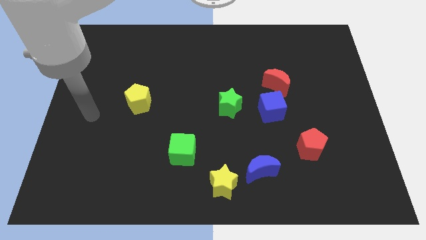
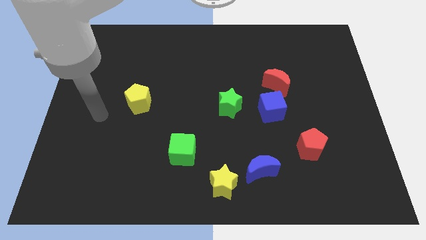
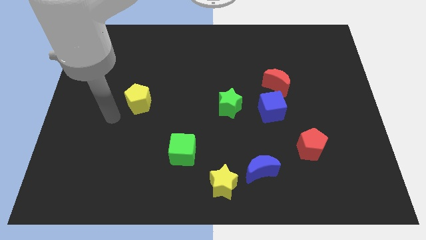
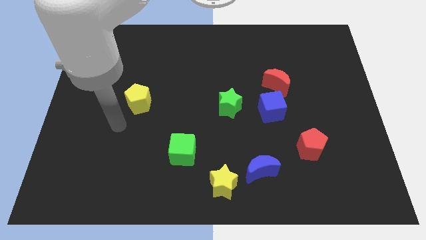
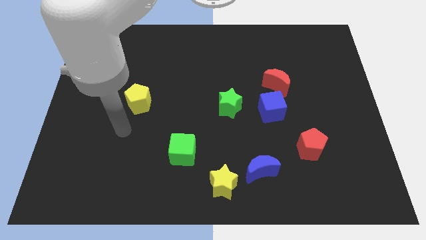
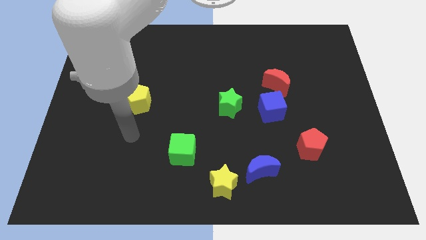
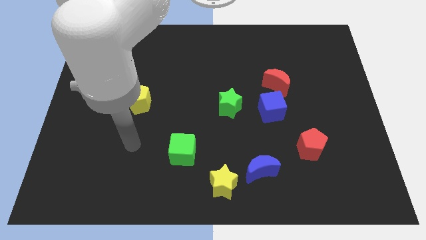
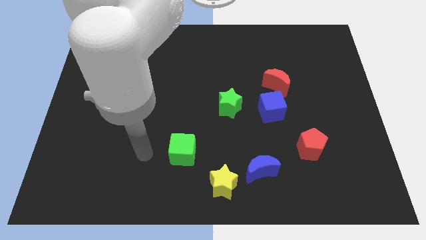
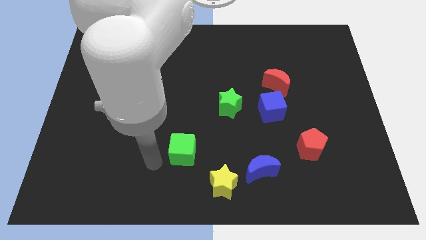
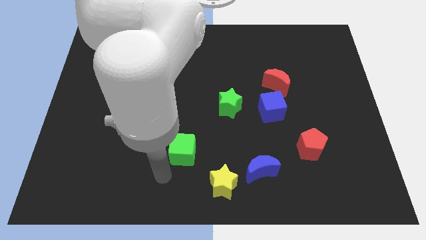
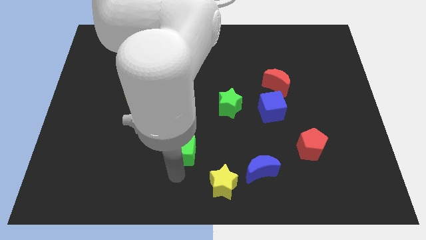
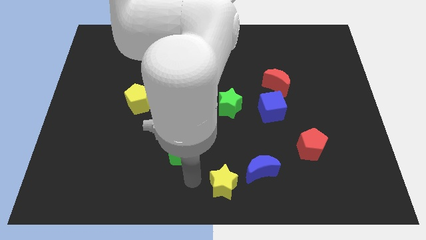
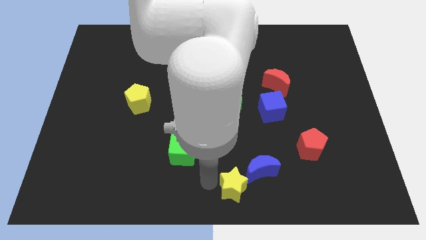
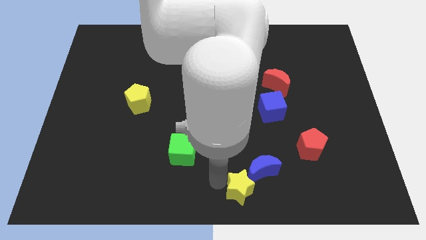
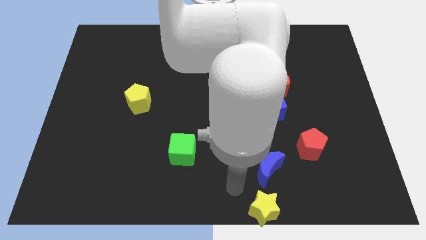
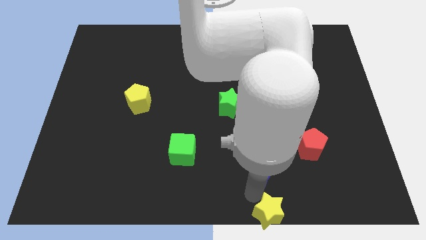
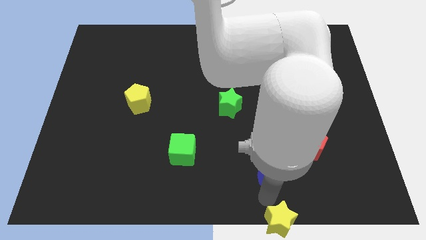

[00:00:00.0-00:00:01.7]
move the blue moon away from the yellow star

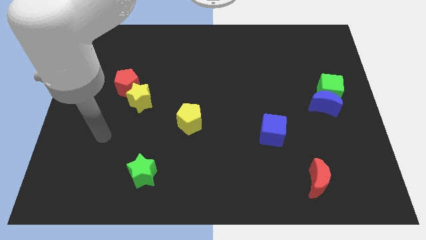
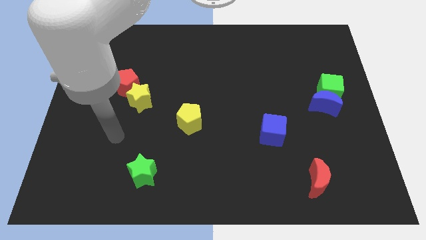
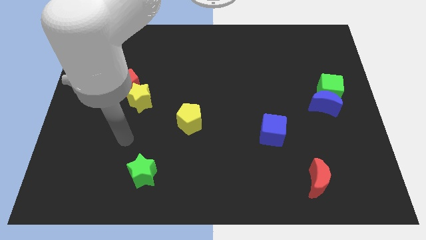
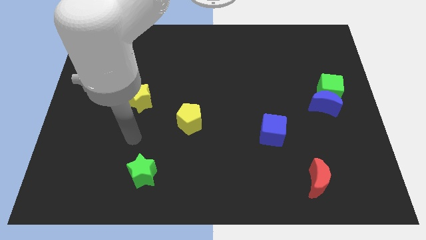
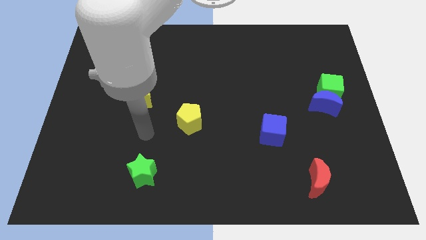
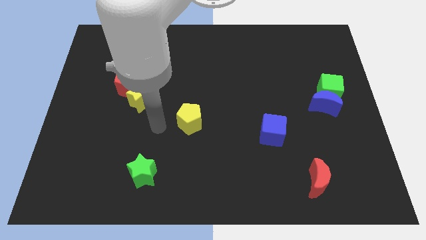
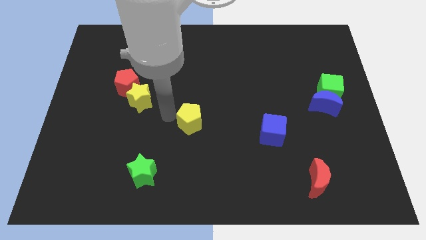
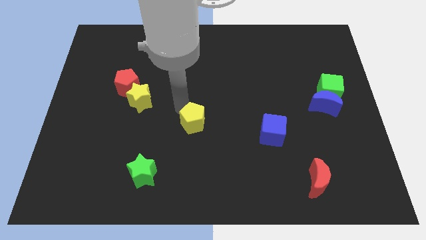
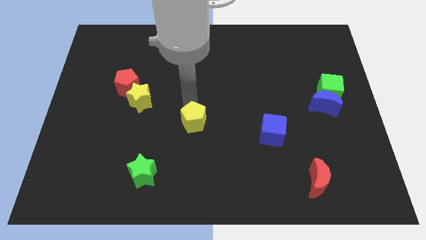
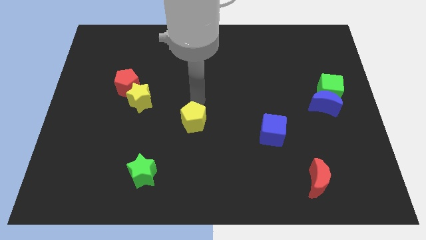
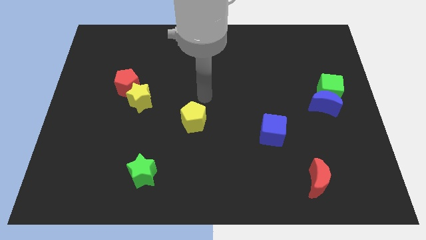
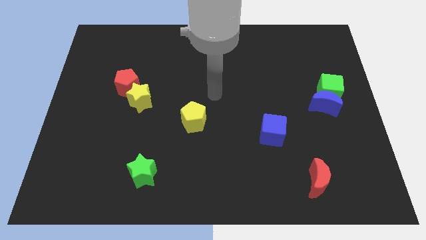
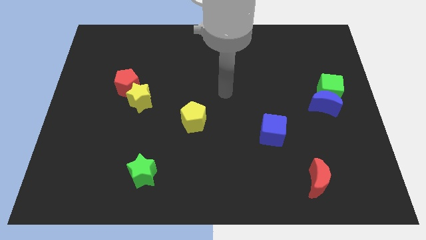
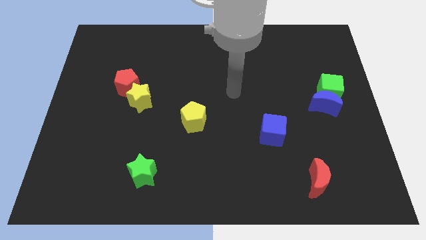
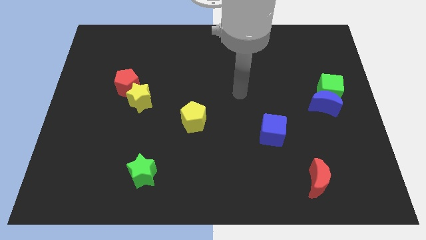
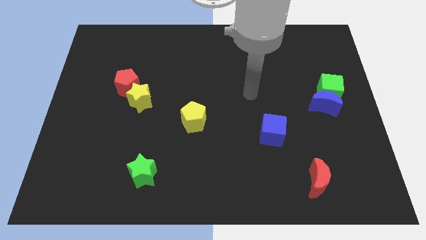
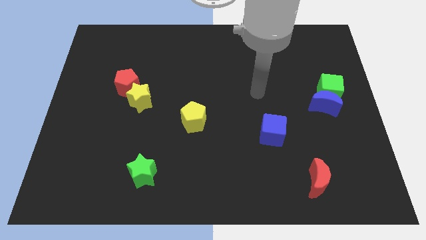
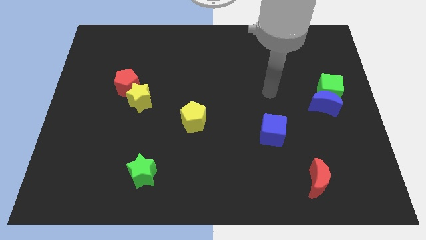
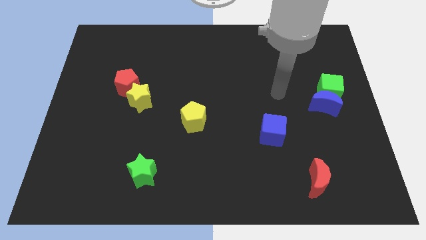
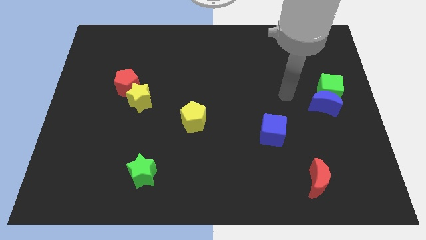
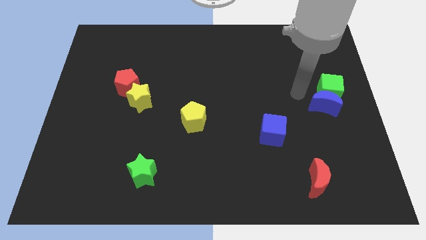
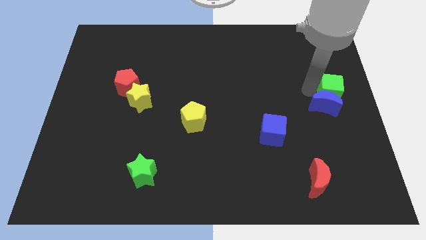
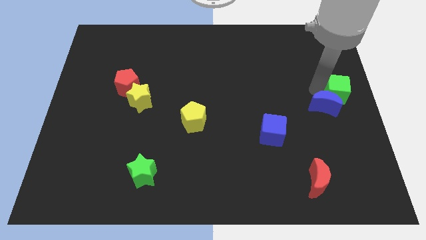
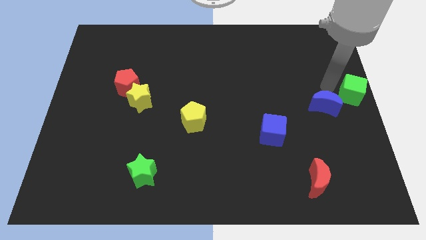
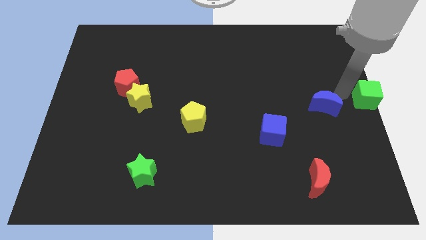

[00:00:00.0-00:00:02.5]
move the blue moon away from the green cube

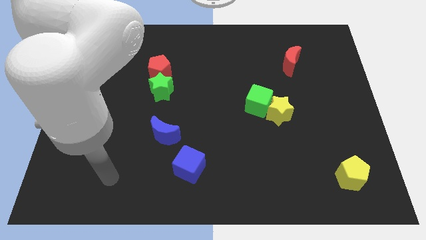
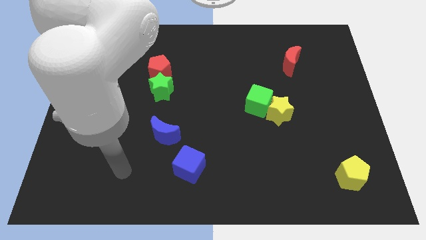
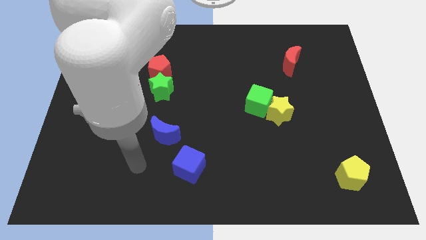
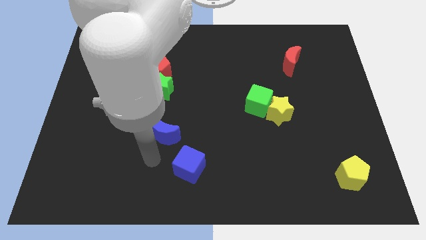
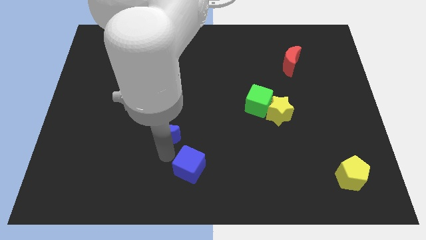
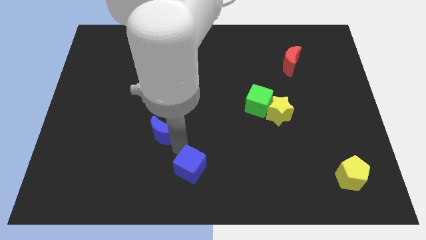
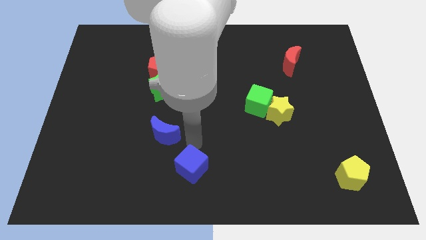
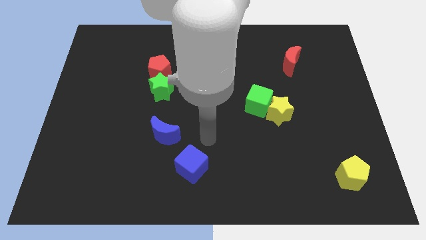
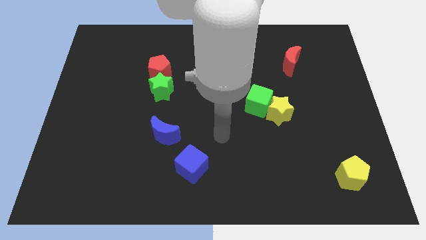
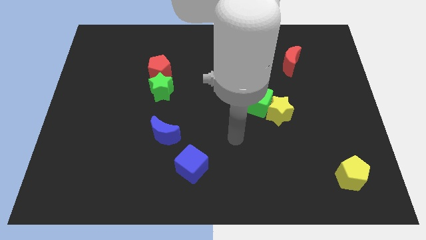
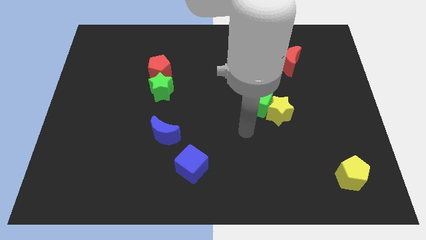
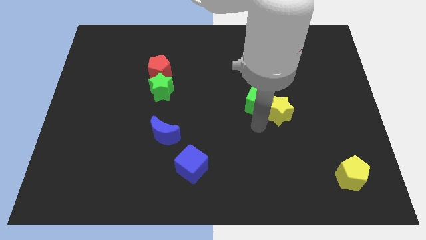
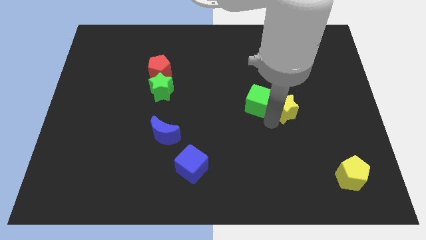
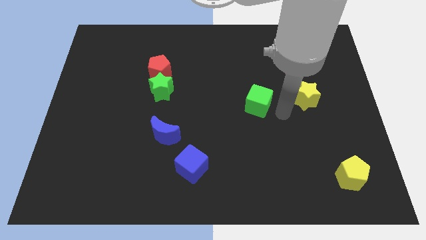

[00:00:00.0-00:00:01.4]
move the green cube away from the yellow star

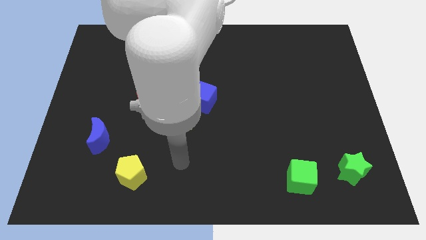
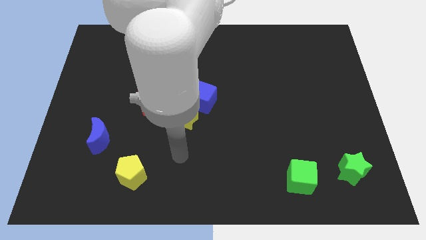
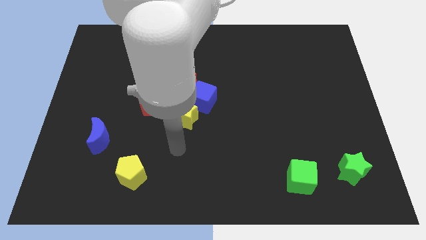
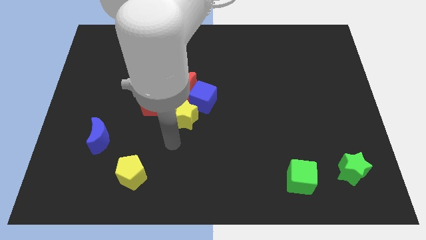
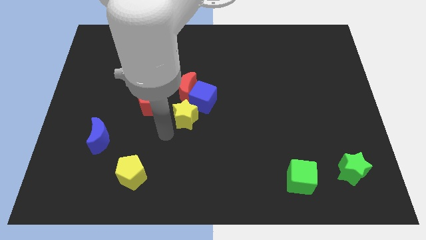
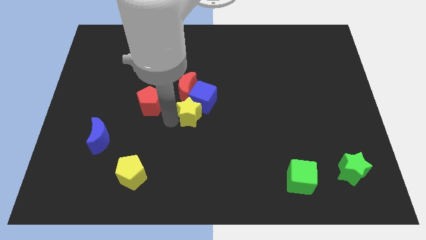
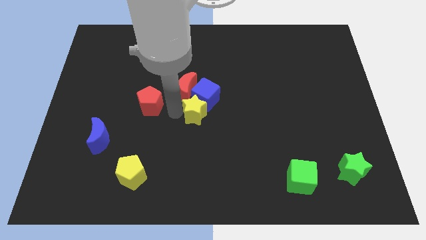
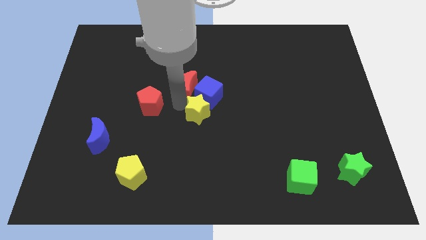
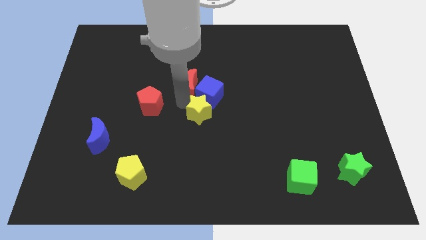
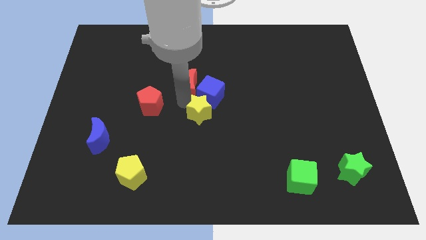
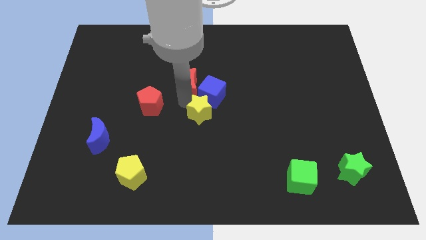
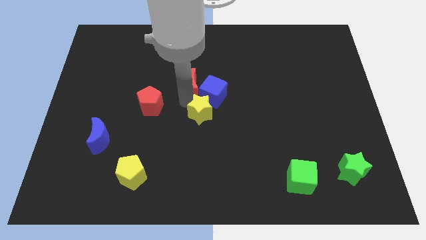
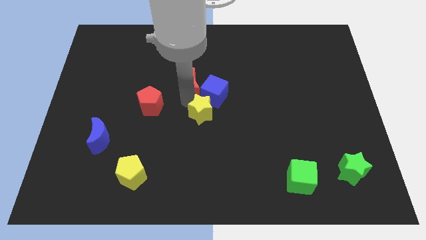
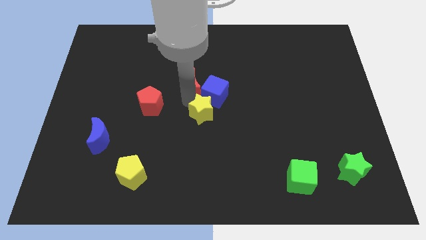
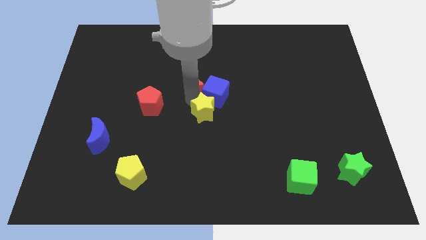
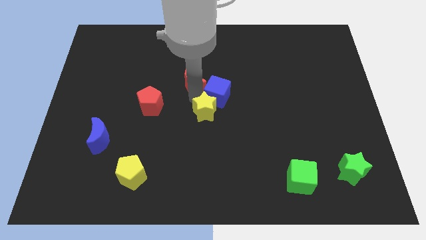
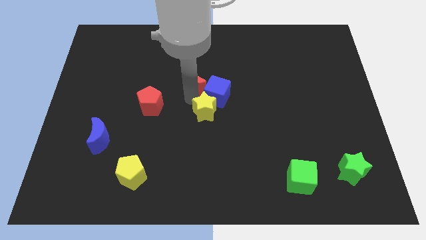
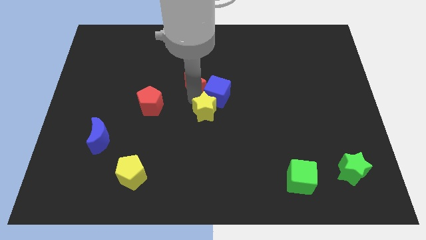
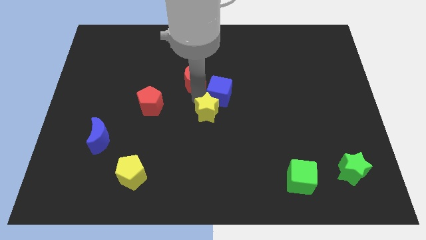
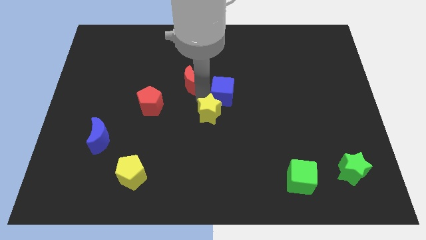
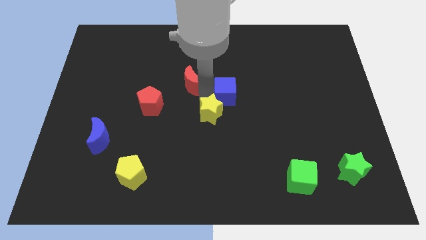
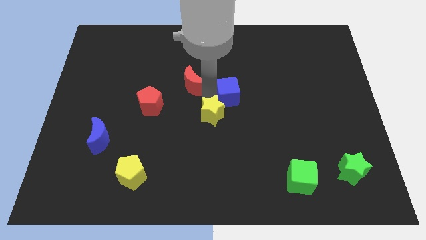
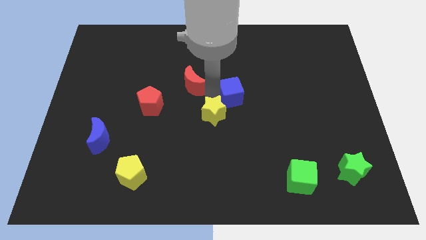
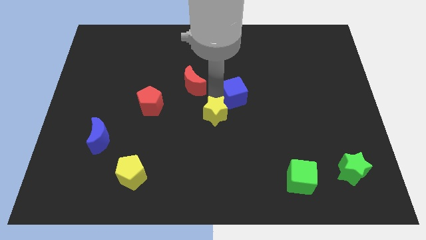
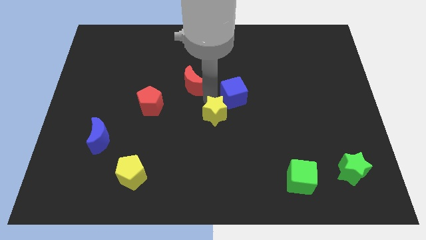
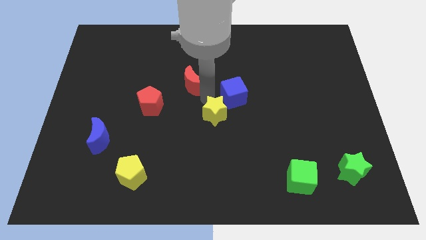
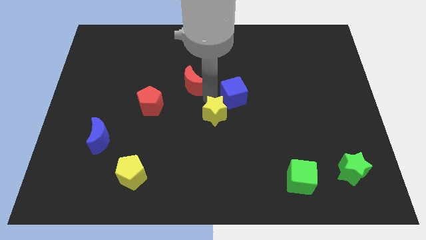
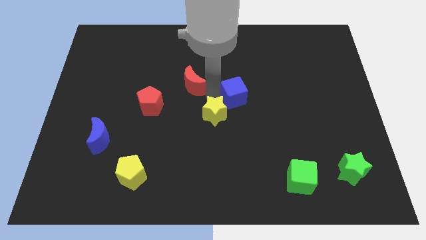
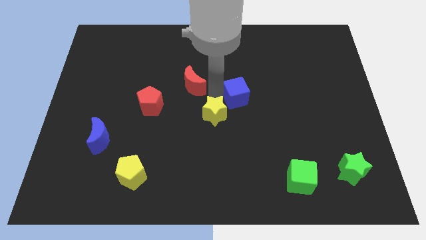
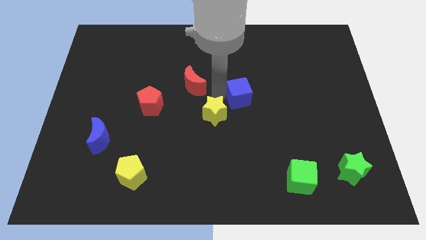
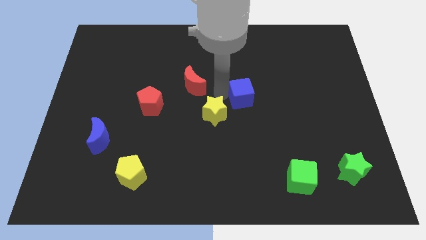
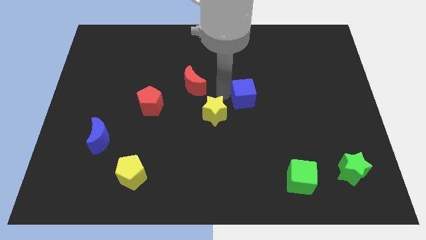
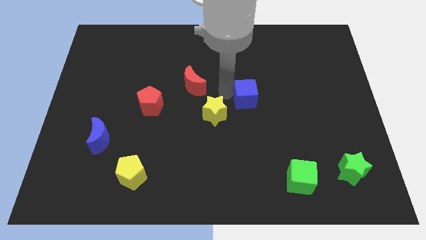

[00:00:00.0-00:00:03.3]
pull the blue cube apart from the red moon and yellow star

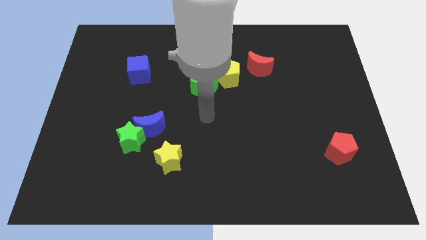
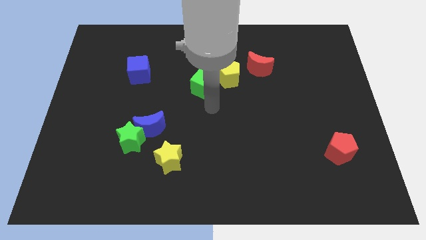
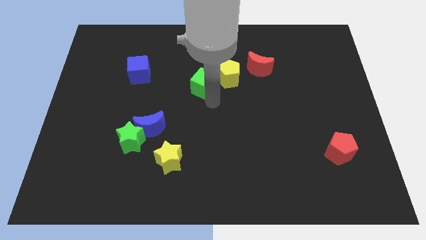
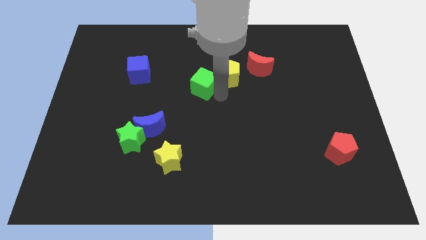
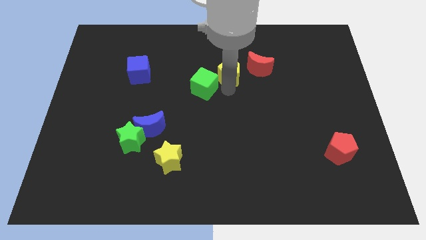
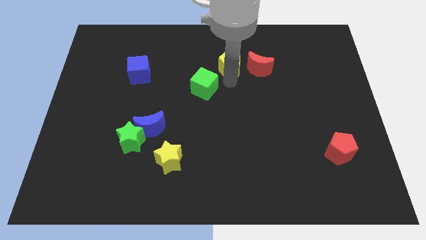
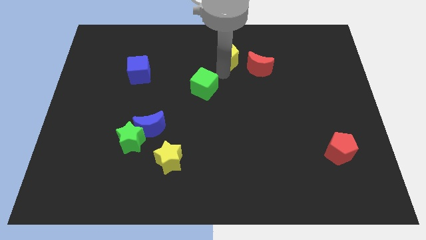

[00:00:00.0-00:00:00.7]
pull the green cube apart from the yellow pentagon
